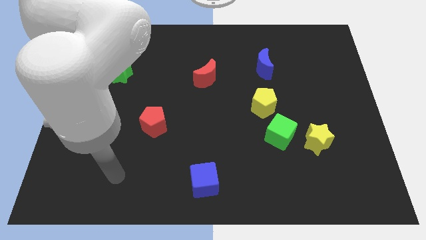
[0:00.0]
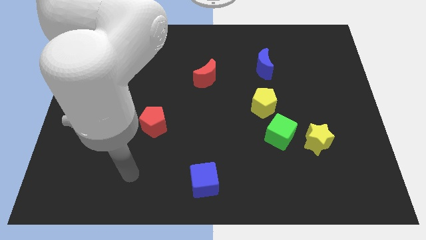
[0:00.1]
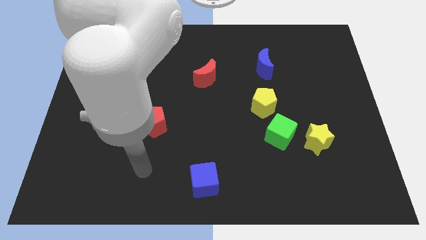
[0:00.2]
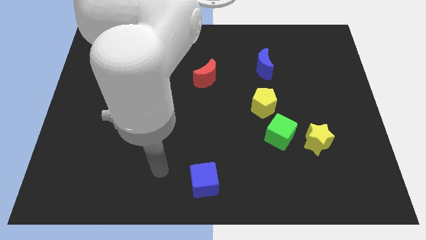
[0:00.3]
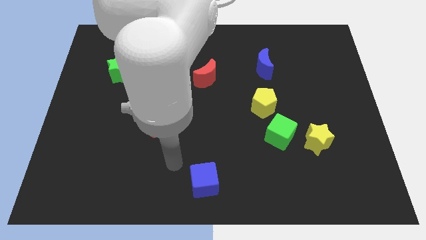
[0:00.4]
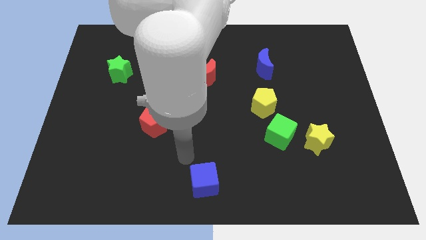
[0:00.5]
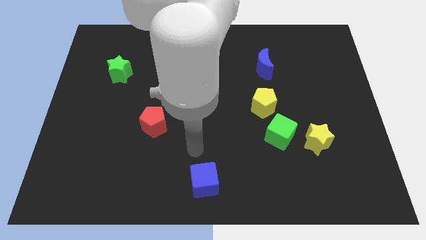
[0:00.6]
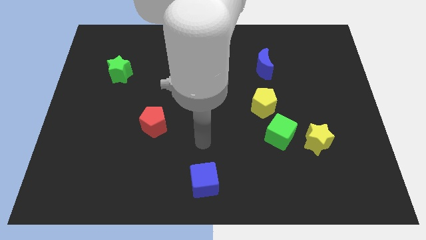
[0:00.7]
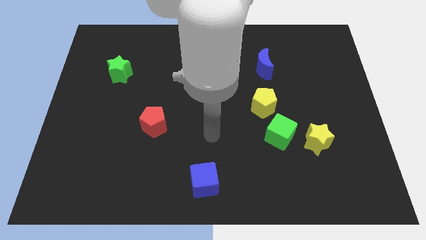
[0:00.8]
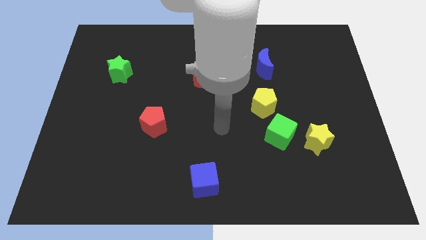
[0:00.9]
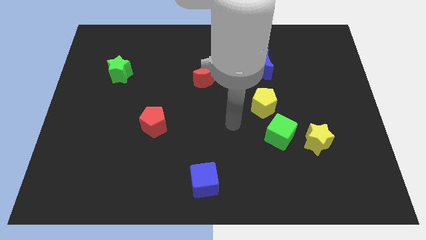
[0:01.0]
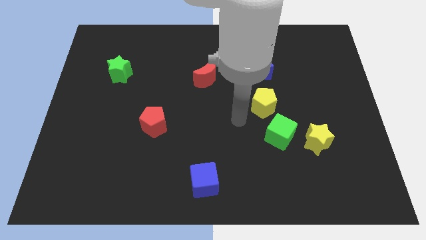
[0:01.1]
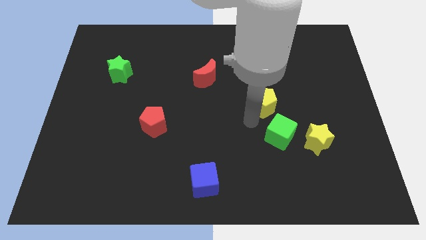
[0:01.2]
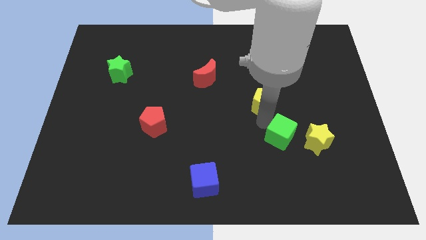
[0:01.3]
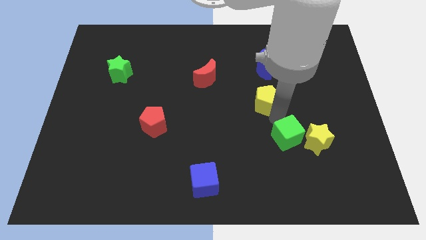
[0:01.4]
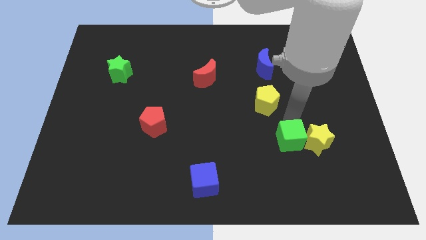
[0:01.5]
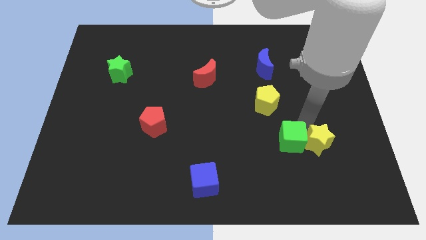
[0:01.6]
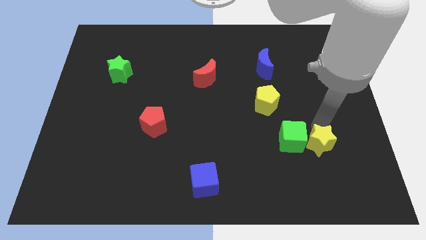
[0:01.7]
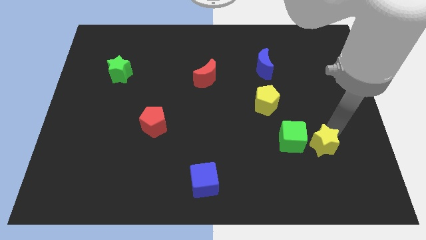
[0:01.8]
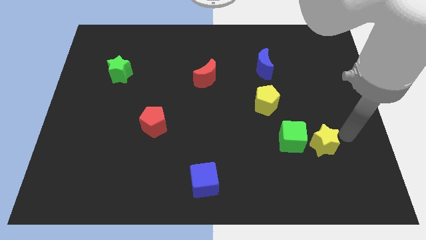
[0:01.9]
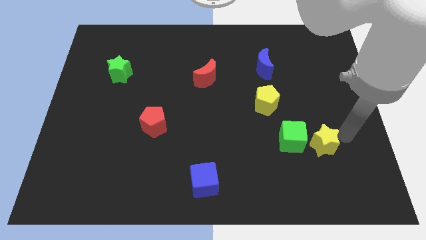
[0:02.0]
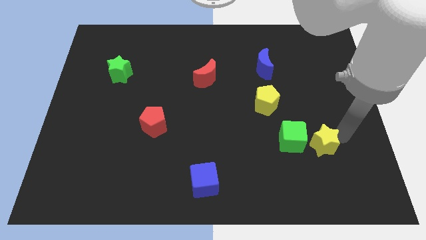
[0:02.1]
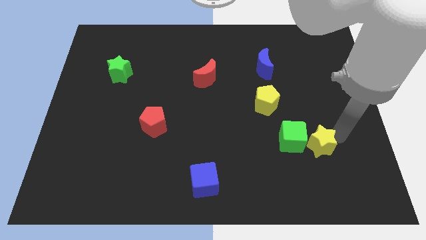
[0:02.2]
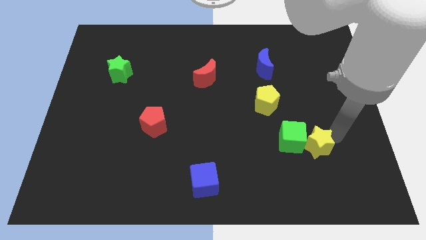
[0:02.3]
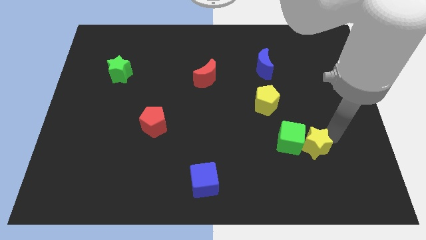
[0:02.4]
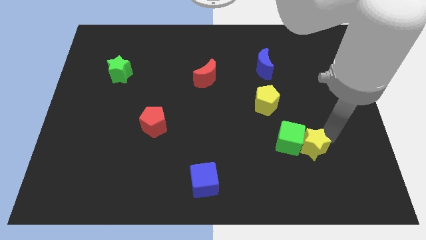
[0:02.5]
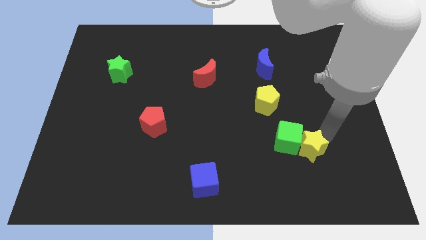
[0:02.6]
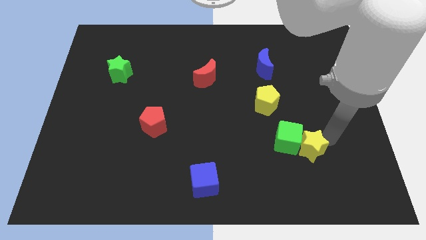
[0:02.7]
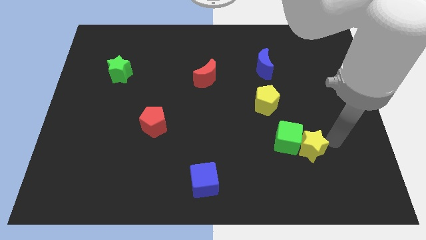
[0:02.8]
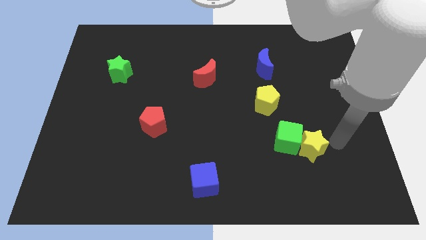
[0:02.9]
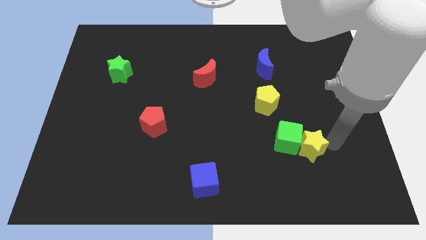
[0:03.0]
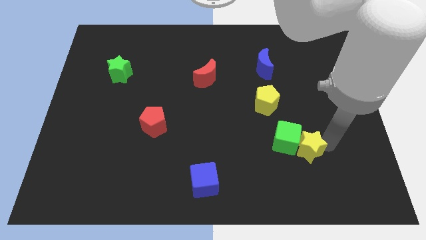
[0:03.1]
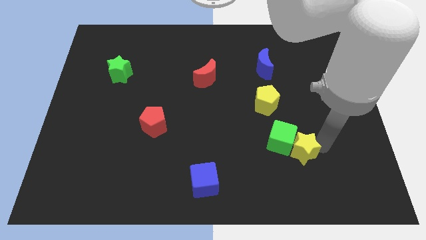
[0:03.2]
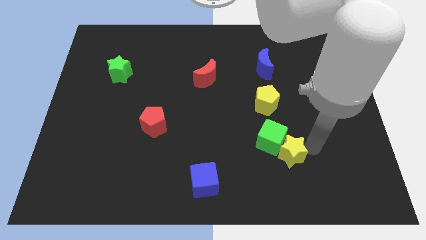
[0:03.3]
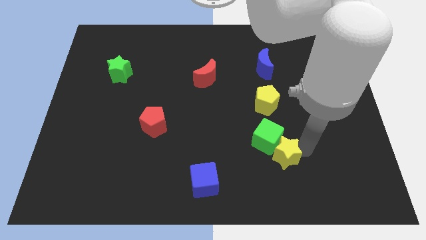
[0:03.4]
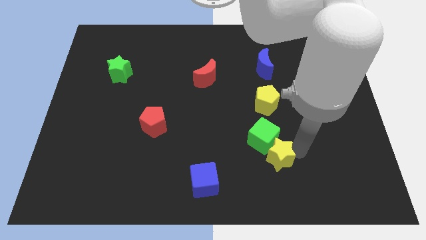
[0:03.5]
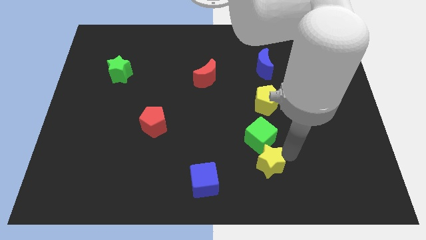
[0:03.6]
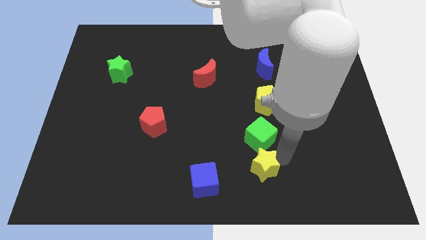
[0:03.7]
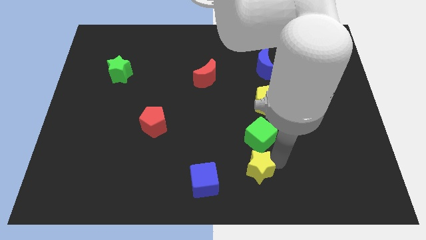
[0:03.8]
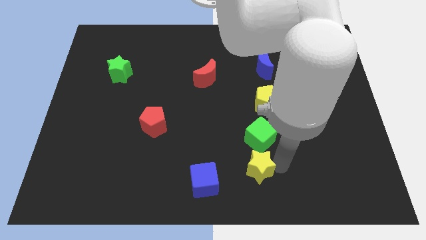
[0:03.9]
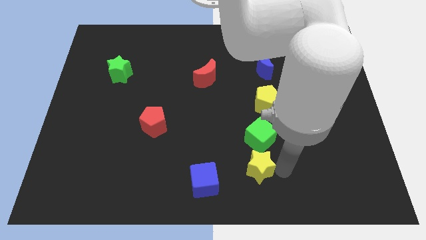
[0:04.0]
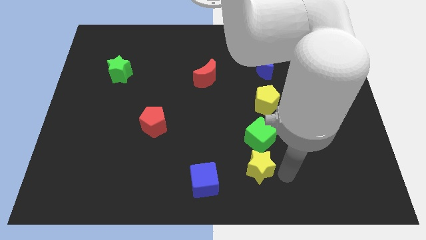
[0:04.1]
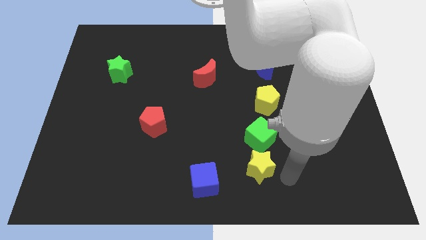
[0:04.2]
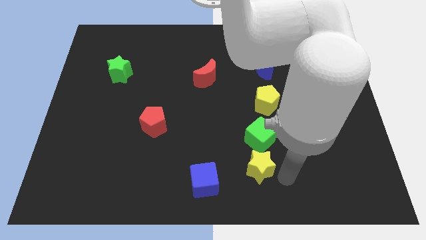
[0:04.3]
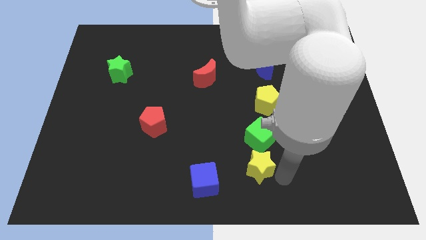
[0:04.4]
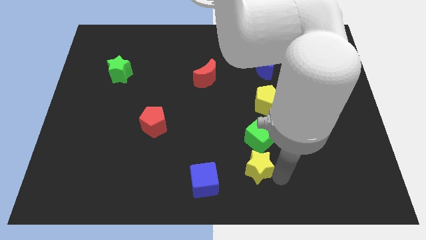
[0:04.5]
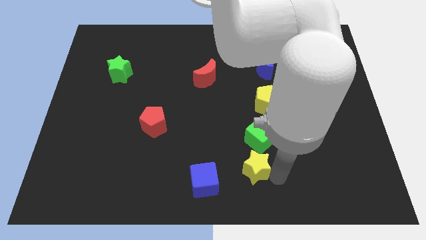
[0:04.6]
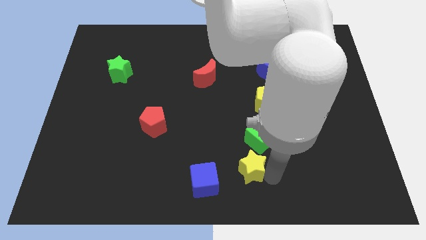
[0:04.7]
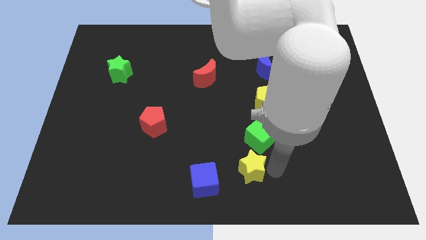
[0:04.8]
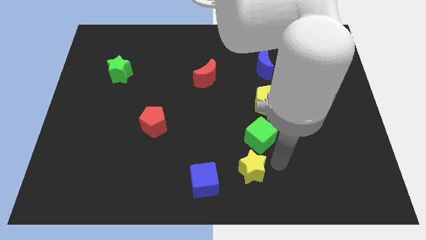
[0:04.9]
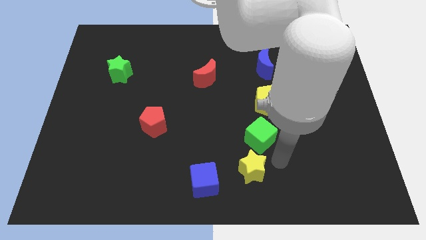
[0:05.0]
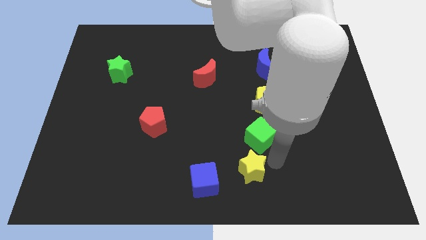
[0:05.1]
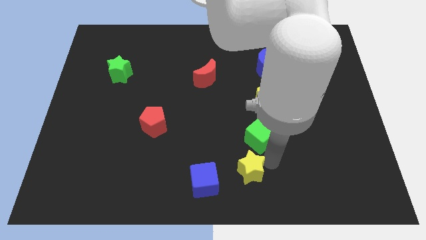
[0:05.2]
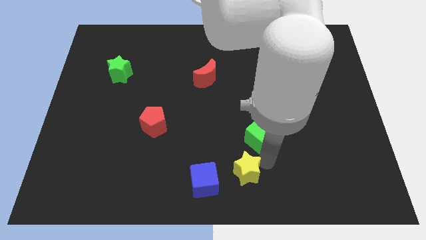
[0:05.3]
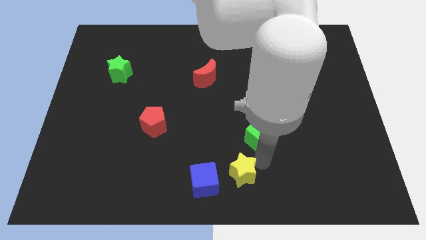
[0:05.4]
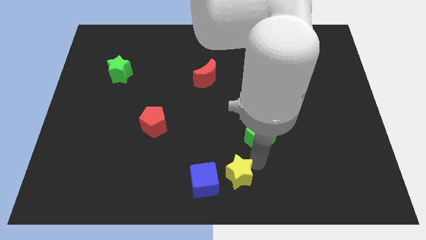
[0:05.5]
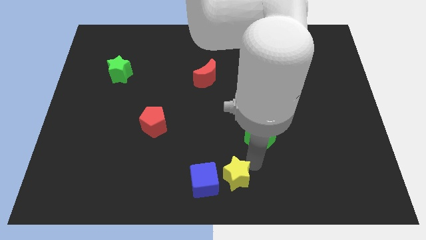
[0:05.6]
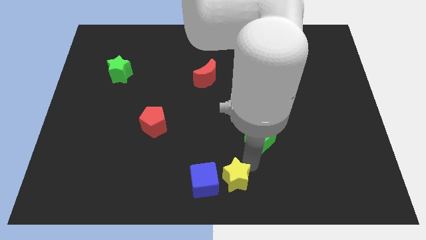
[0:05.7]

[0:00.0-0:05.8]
slide the yellow star towards the blue cube
